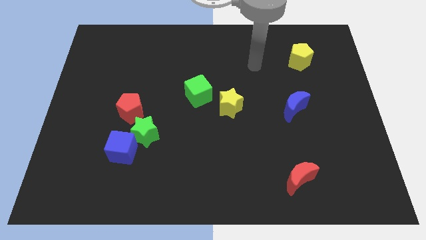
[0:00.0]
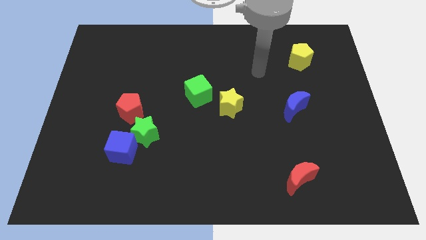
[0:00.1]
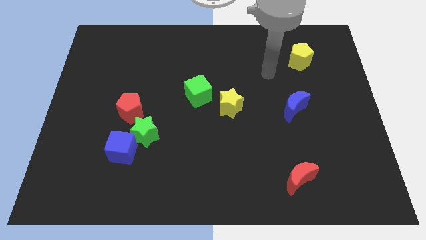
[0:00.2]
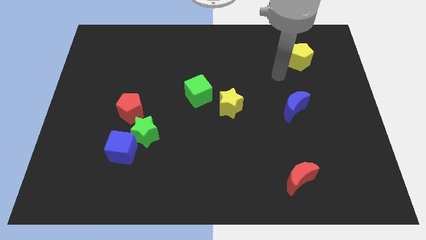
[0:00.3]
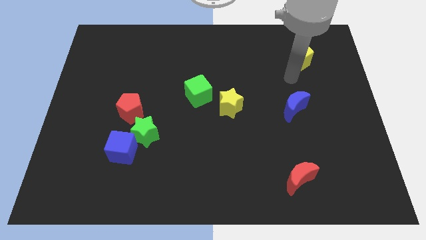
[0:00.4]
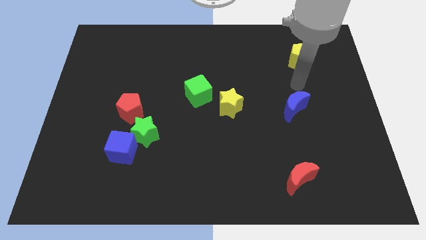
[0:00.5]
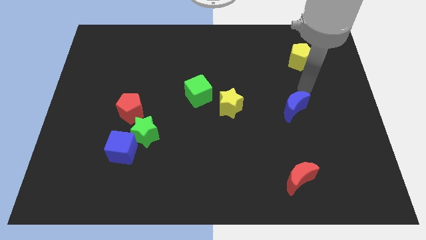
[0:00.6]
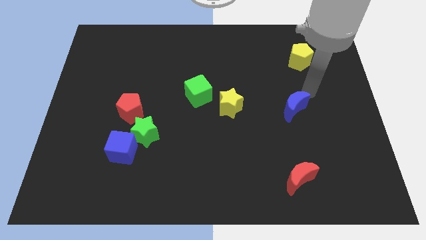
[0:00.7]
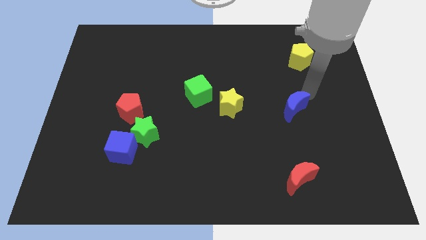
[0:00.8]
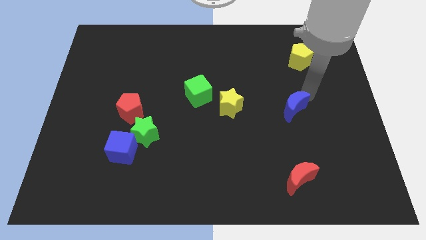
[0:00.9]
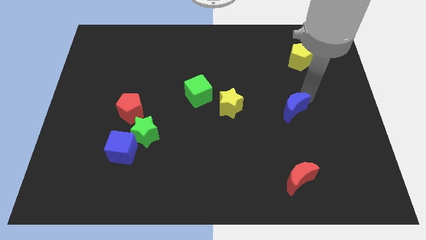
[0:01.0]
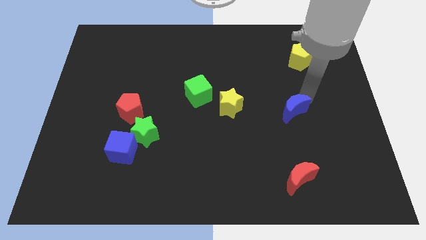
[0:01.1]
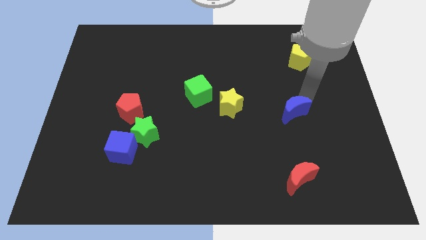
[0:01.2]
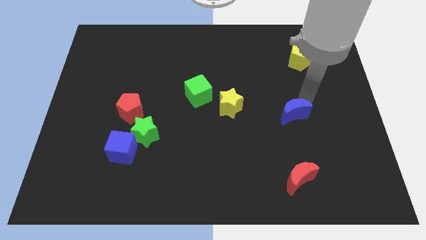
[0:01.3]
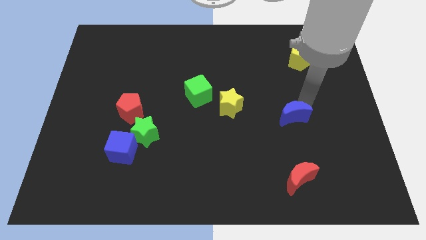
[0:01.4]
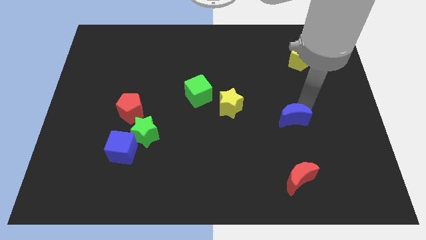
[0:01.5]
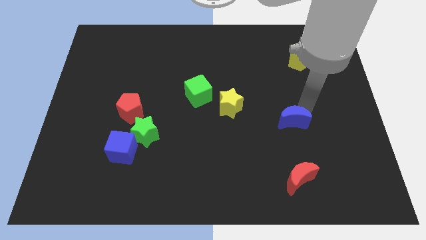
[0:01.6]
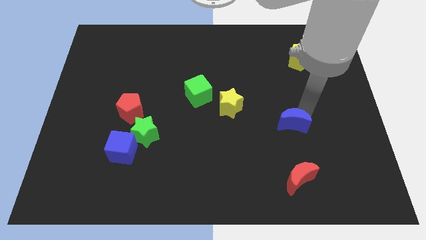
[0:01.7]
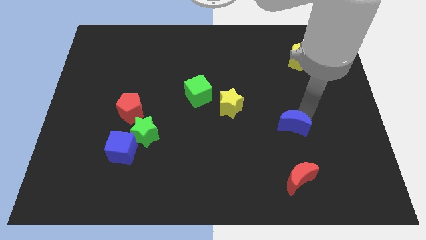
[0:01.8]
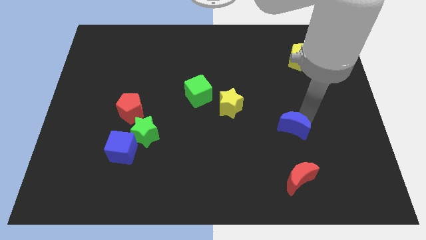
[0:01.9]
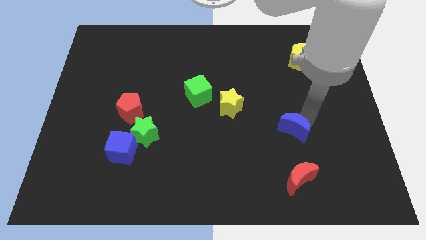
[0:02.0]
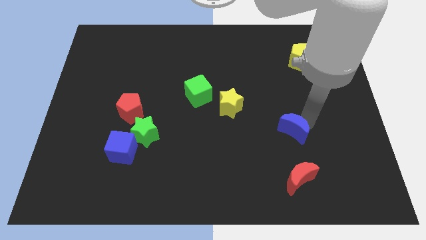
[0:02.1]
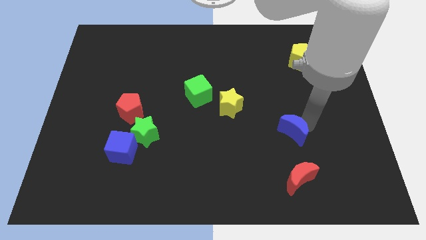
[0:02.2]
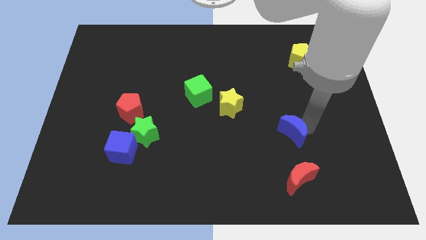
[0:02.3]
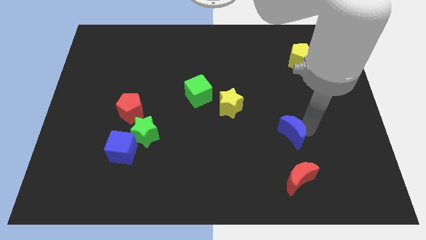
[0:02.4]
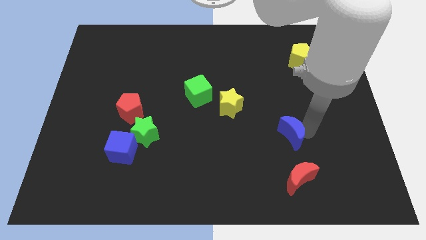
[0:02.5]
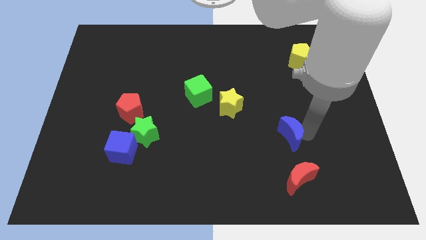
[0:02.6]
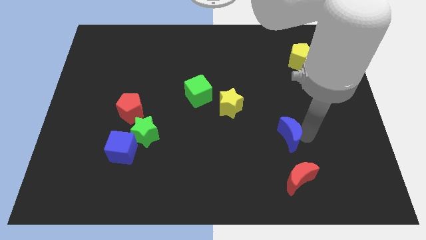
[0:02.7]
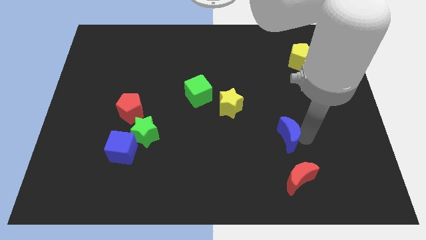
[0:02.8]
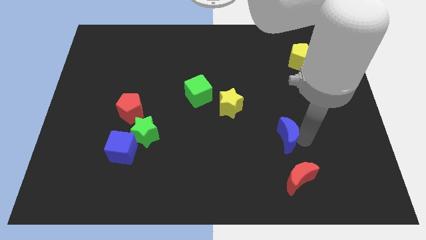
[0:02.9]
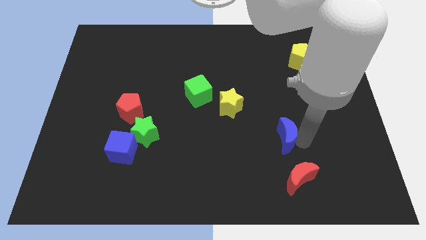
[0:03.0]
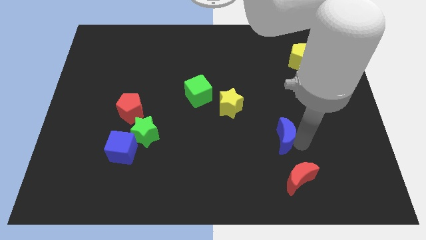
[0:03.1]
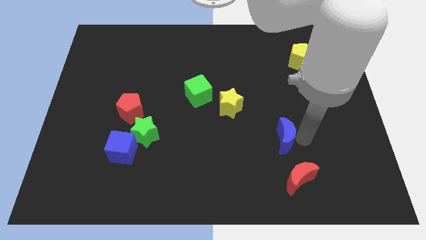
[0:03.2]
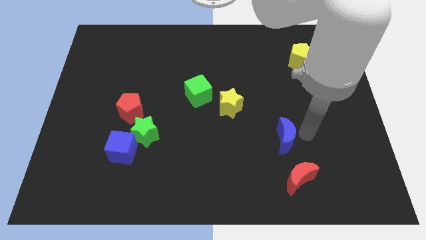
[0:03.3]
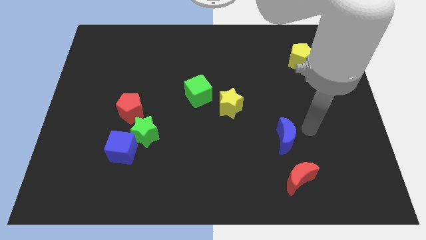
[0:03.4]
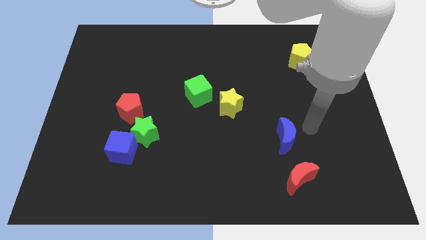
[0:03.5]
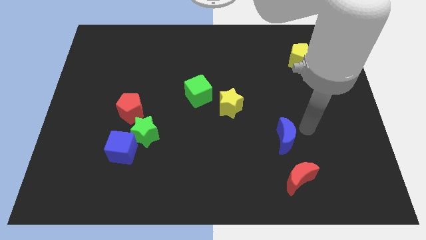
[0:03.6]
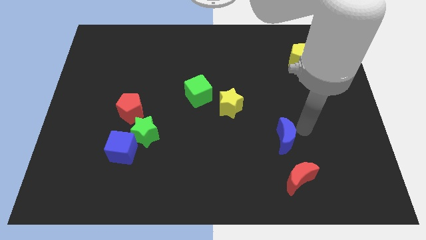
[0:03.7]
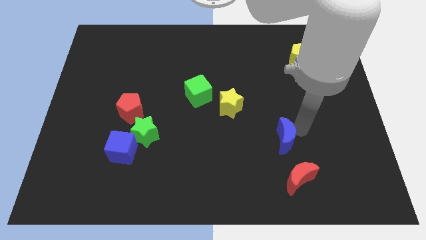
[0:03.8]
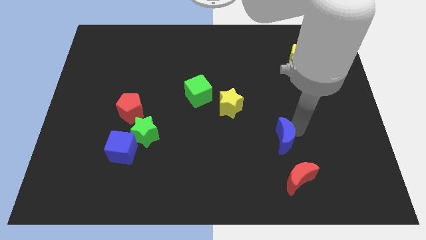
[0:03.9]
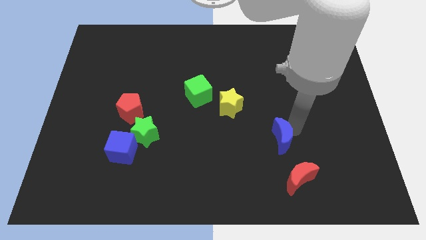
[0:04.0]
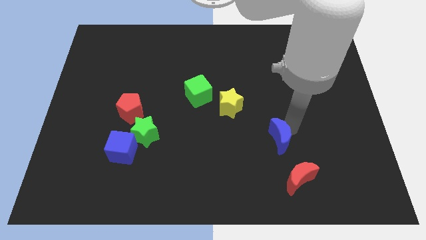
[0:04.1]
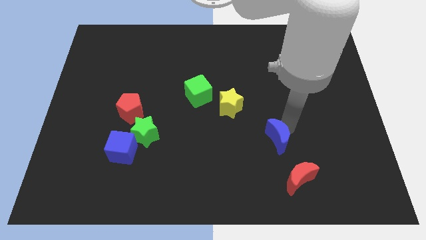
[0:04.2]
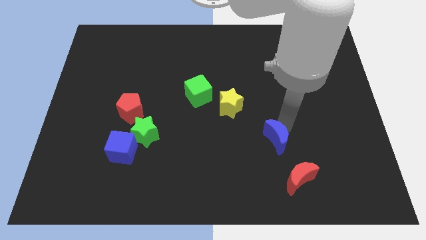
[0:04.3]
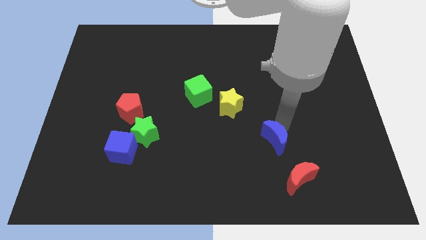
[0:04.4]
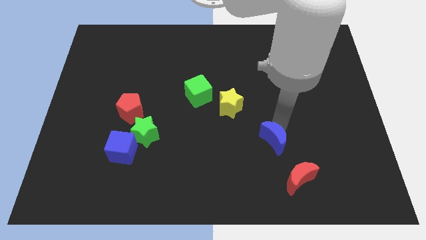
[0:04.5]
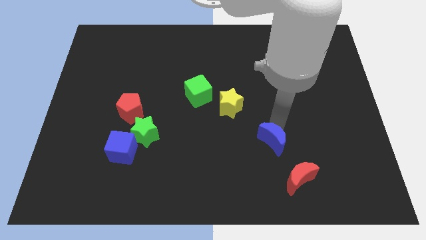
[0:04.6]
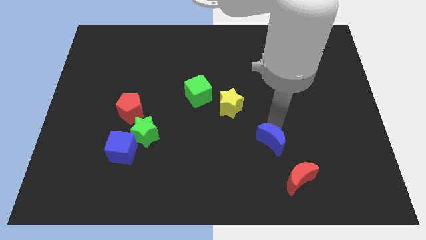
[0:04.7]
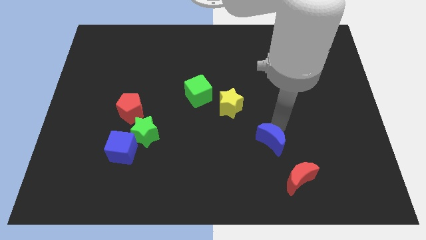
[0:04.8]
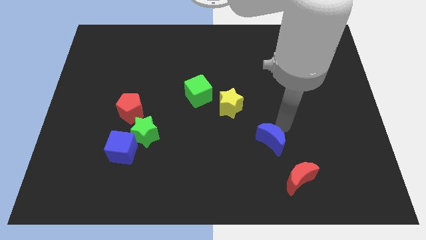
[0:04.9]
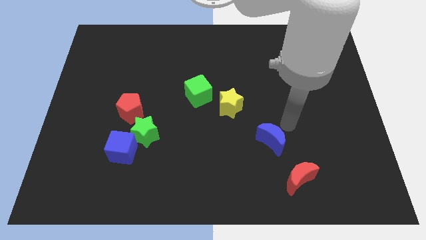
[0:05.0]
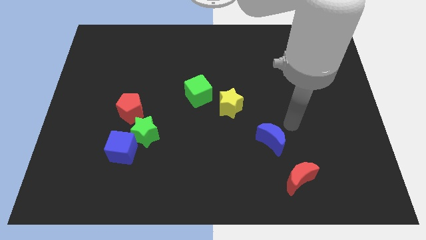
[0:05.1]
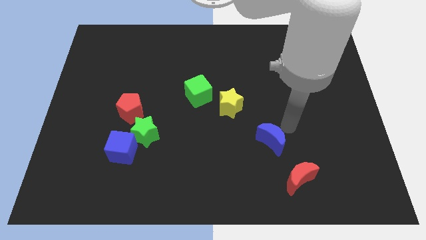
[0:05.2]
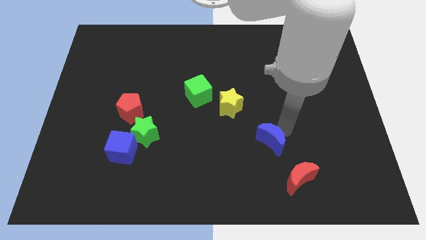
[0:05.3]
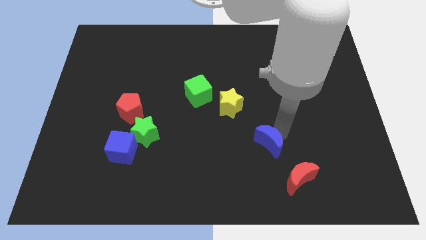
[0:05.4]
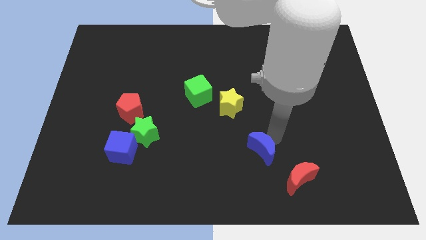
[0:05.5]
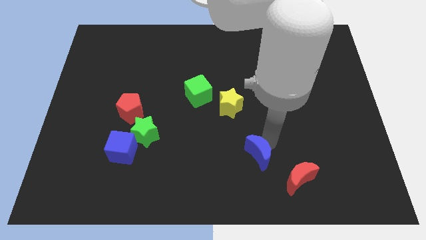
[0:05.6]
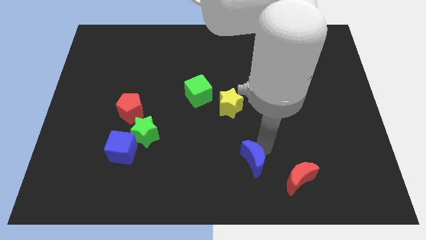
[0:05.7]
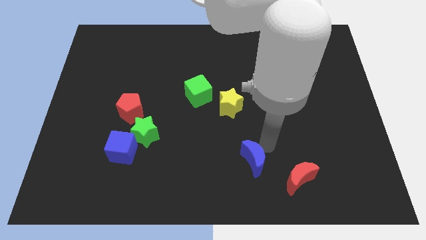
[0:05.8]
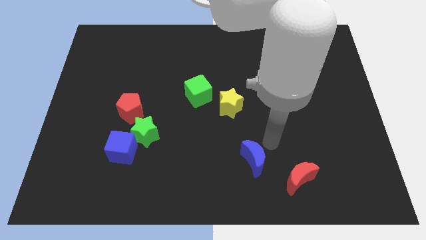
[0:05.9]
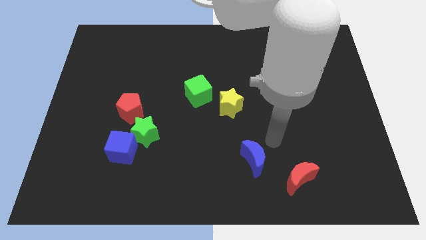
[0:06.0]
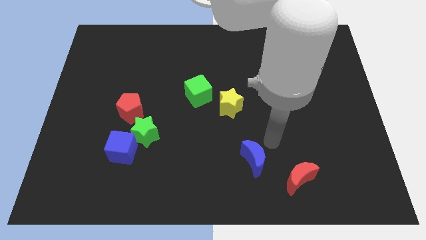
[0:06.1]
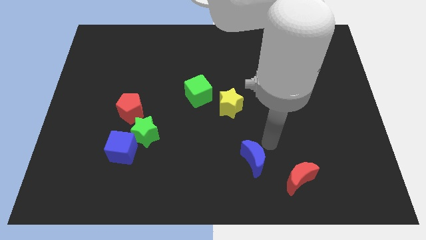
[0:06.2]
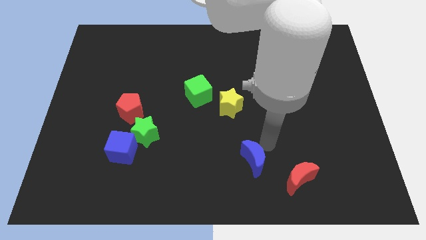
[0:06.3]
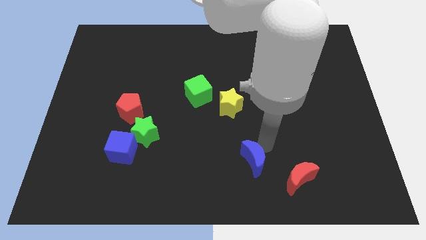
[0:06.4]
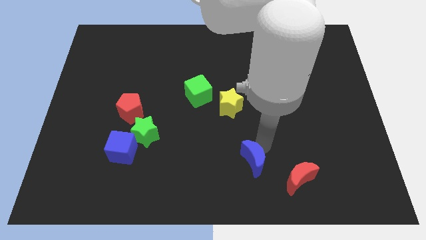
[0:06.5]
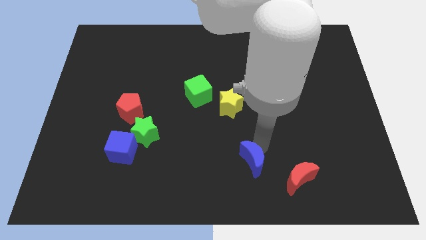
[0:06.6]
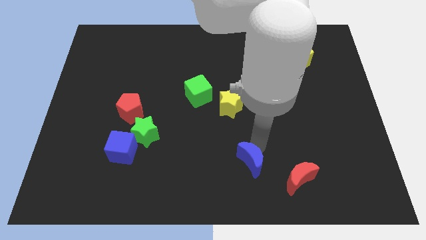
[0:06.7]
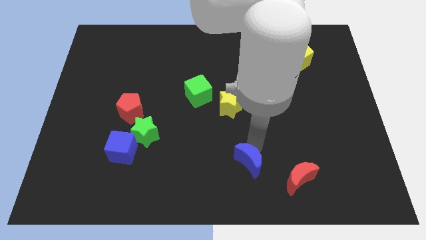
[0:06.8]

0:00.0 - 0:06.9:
move the blue moon to the bottom
